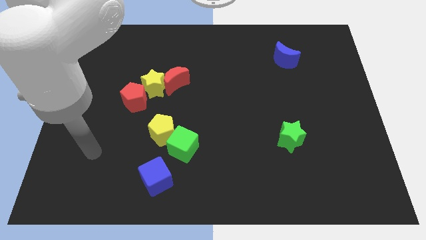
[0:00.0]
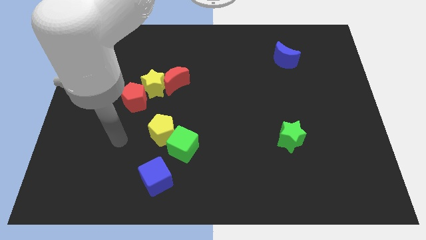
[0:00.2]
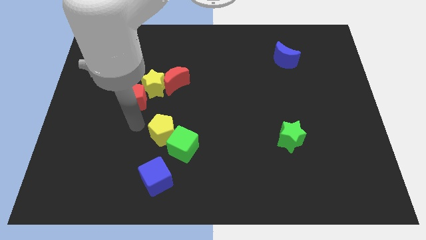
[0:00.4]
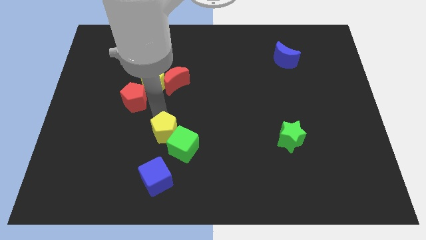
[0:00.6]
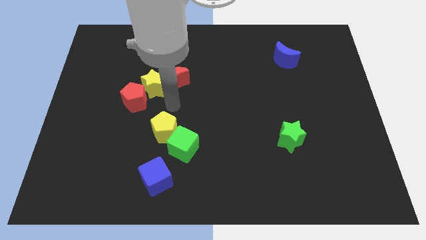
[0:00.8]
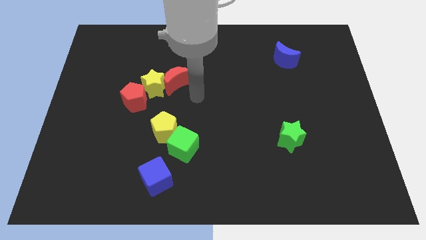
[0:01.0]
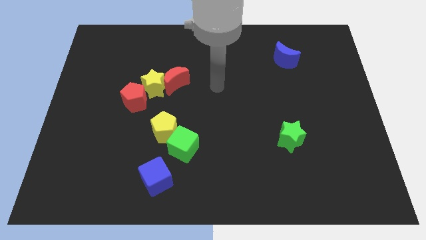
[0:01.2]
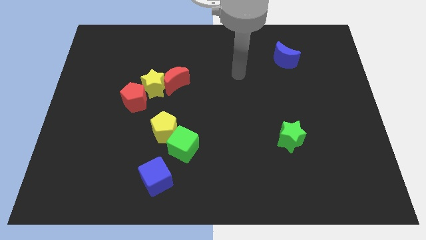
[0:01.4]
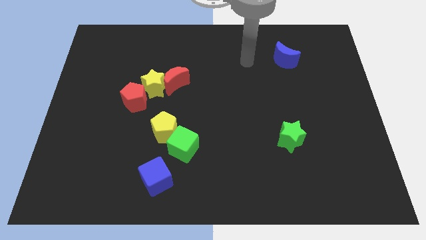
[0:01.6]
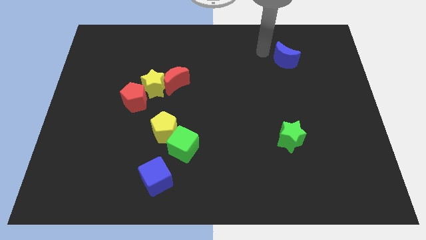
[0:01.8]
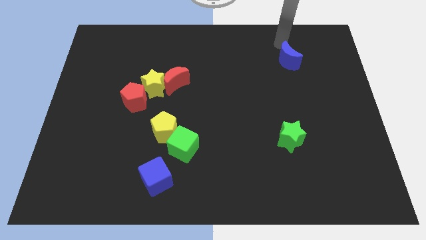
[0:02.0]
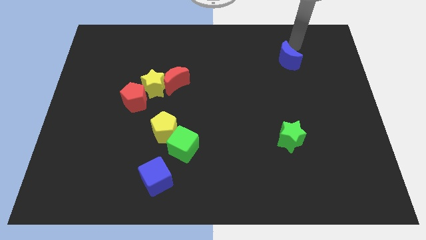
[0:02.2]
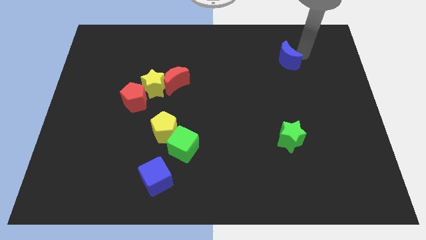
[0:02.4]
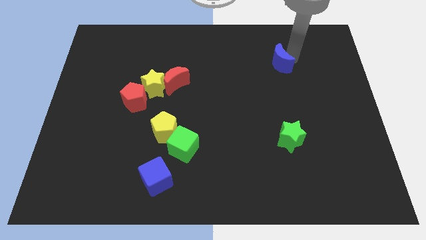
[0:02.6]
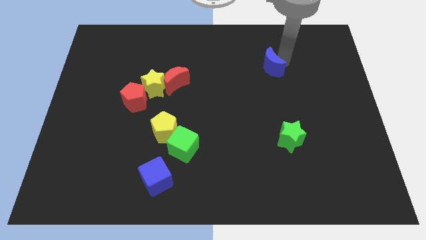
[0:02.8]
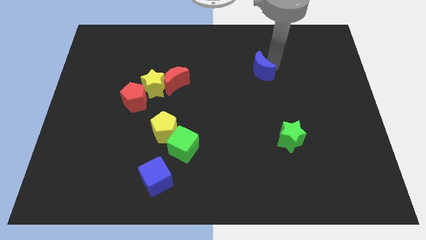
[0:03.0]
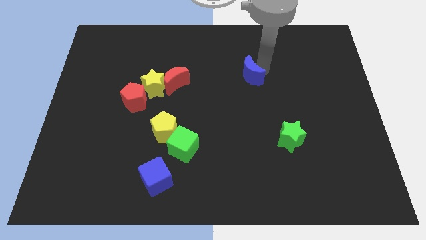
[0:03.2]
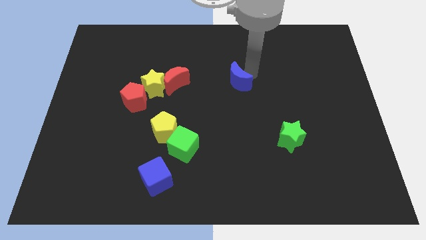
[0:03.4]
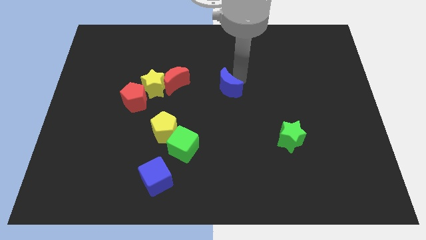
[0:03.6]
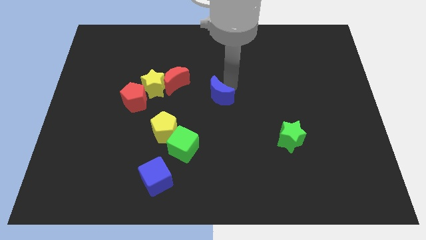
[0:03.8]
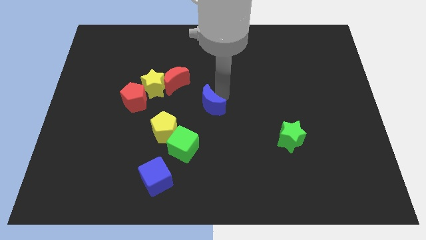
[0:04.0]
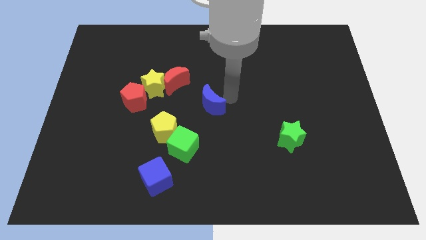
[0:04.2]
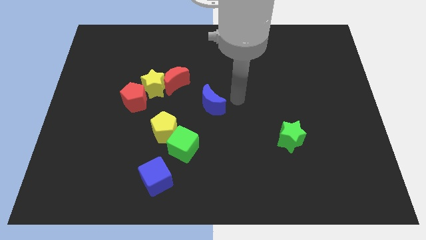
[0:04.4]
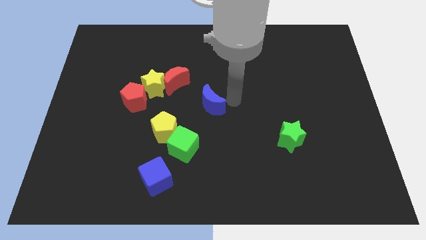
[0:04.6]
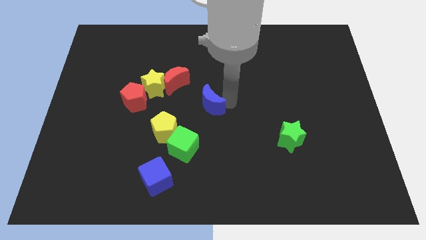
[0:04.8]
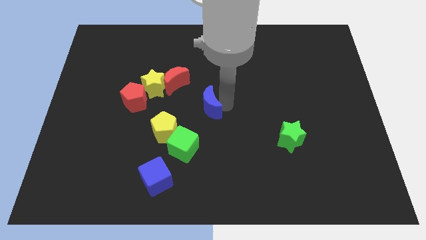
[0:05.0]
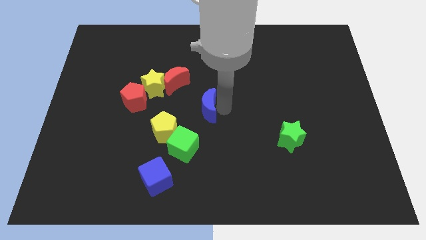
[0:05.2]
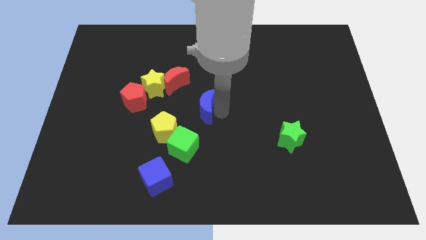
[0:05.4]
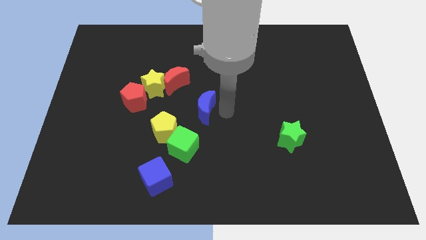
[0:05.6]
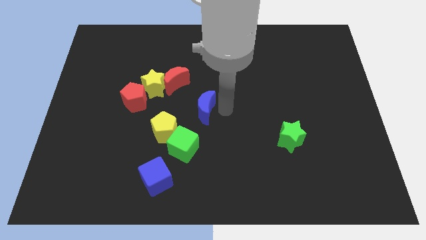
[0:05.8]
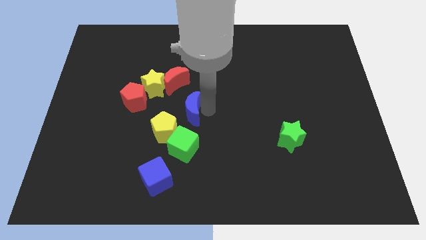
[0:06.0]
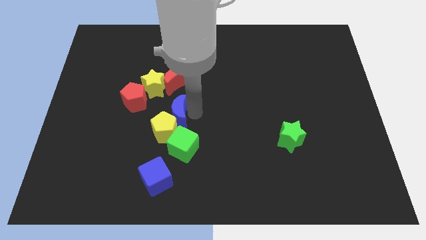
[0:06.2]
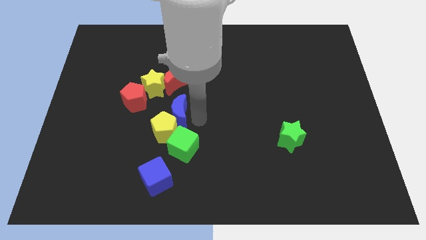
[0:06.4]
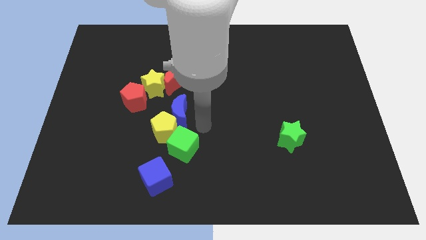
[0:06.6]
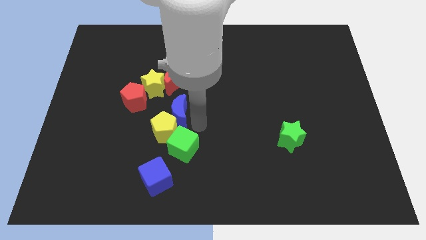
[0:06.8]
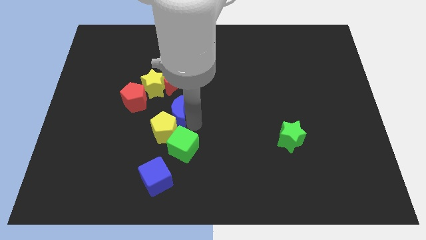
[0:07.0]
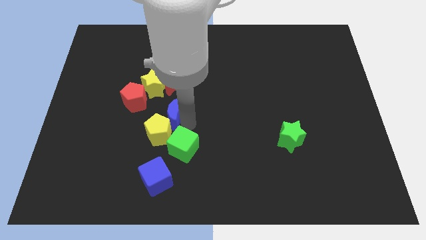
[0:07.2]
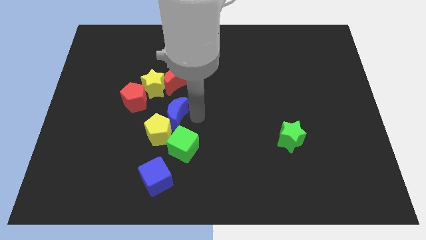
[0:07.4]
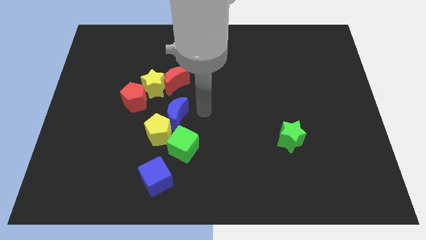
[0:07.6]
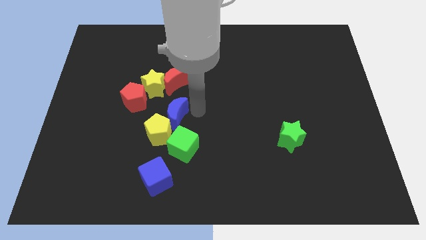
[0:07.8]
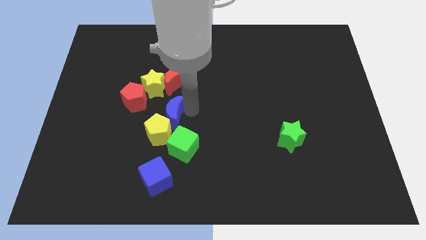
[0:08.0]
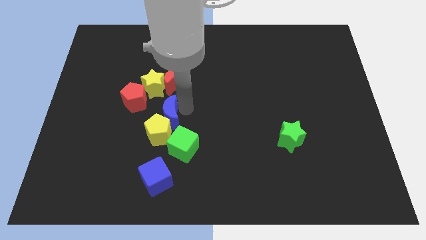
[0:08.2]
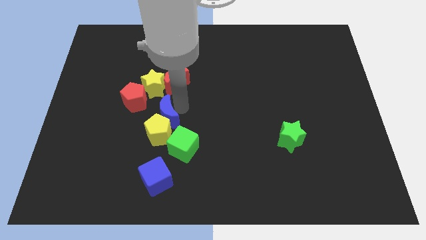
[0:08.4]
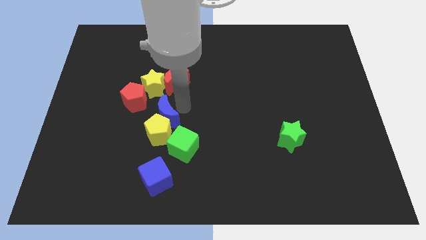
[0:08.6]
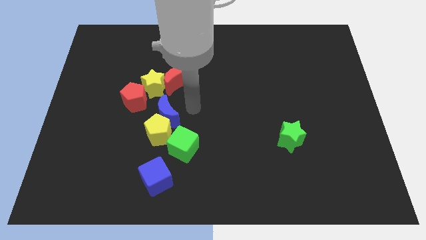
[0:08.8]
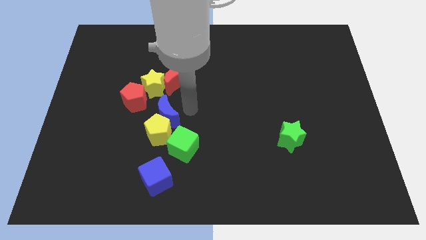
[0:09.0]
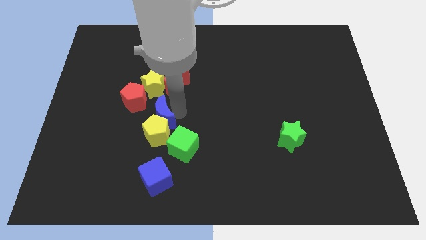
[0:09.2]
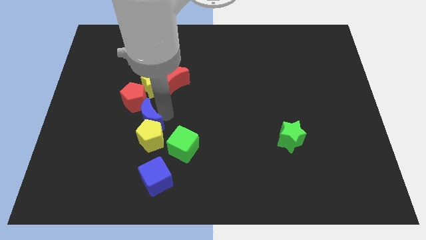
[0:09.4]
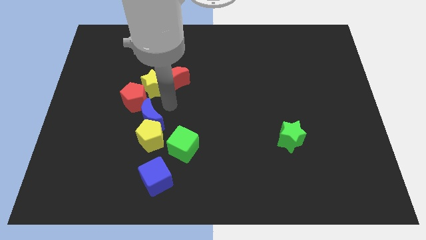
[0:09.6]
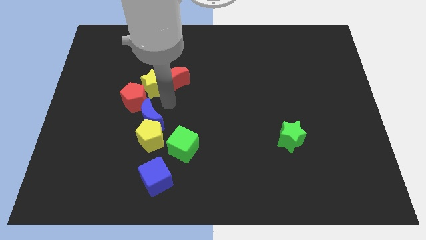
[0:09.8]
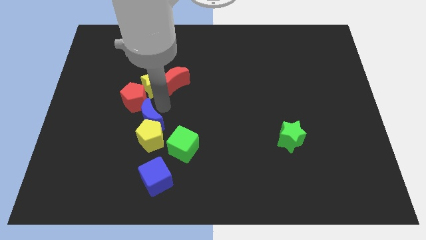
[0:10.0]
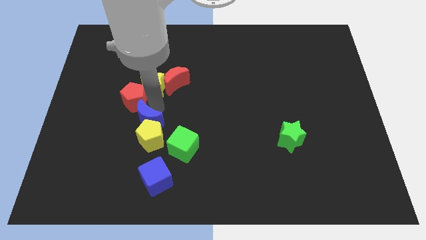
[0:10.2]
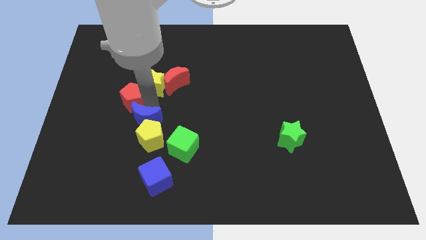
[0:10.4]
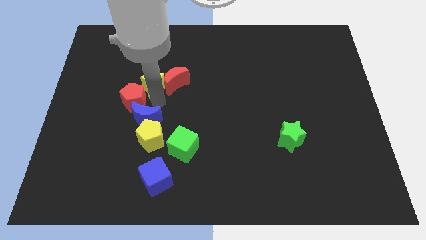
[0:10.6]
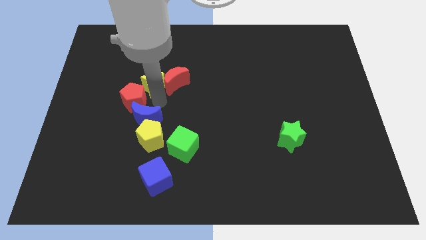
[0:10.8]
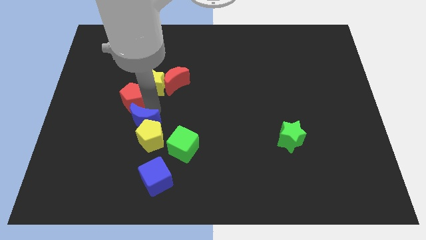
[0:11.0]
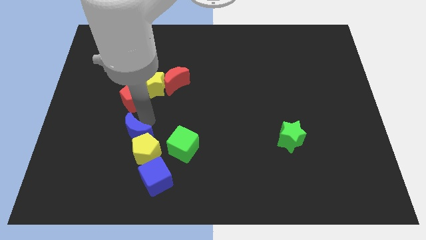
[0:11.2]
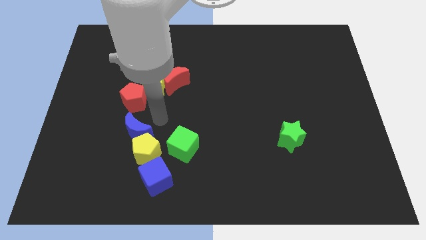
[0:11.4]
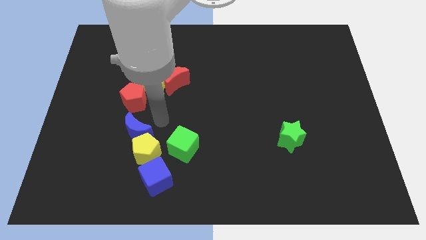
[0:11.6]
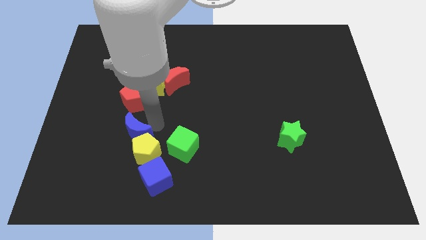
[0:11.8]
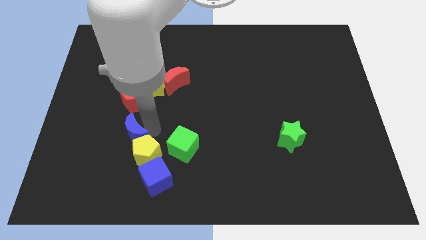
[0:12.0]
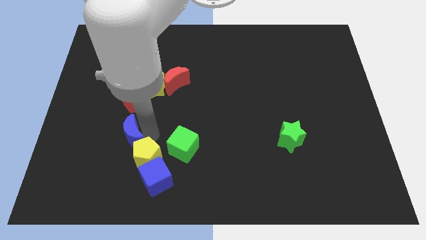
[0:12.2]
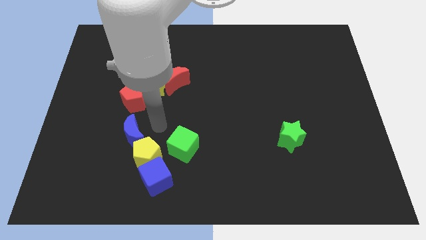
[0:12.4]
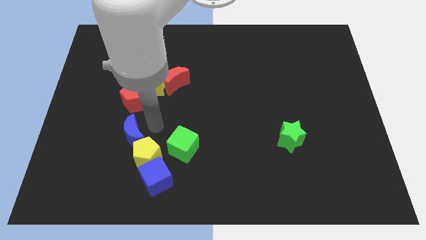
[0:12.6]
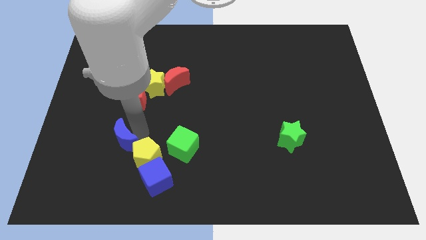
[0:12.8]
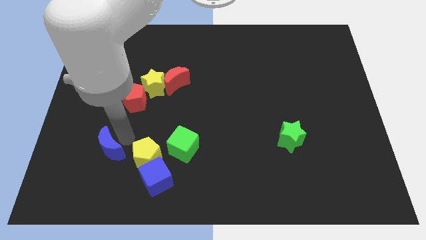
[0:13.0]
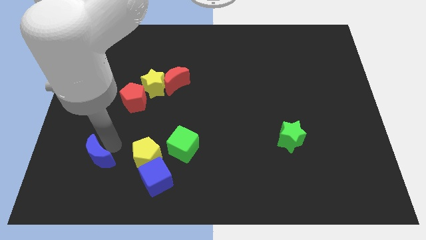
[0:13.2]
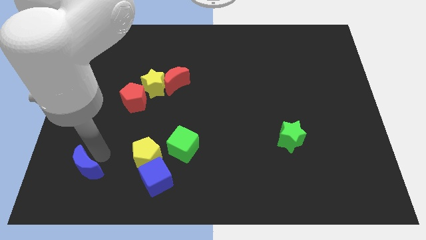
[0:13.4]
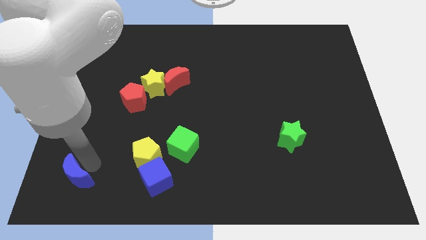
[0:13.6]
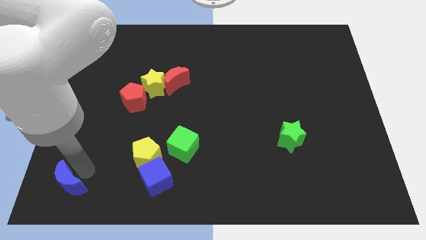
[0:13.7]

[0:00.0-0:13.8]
put the blue moon to the bottom left of the board
